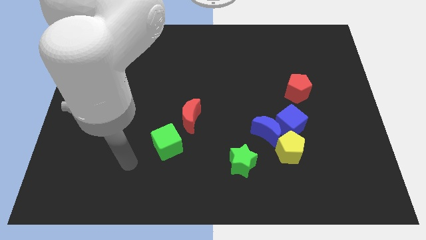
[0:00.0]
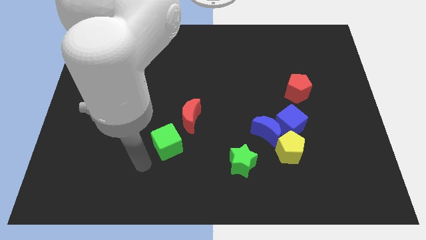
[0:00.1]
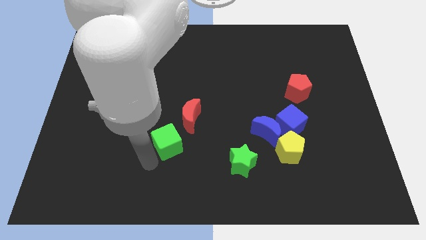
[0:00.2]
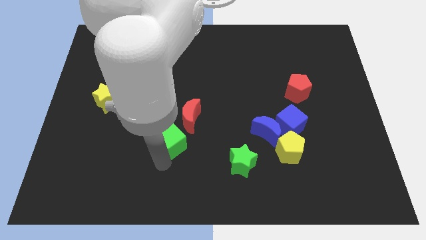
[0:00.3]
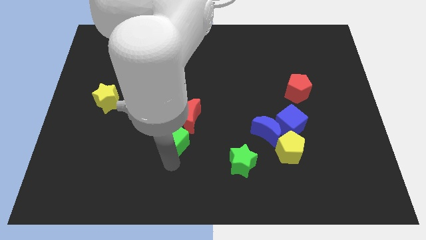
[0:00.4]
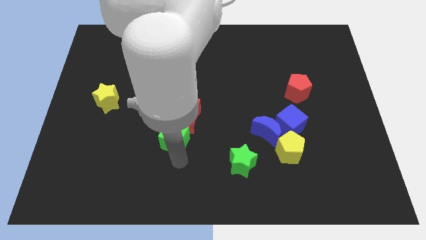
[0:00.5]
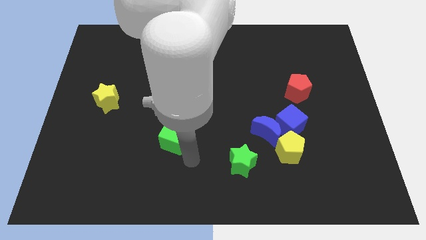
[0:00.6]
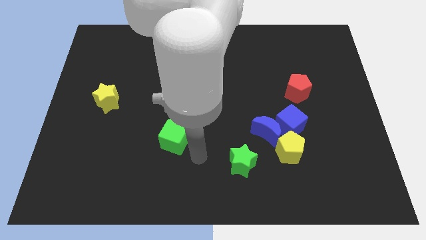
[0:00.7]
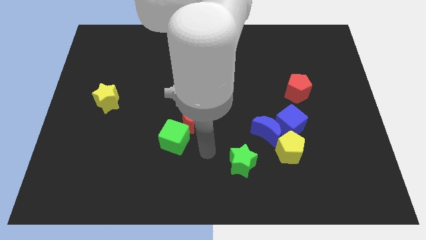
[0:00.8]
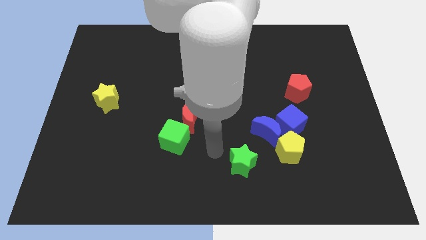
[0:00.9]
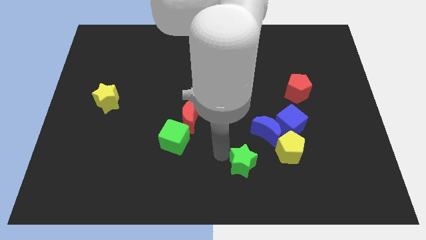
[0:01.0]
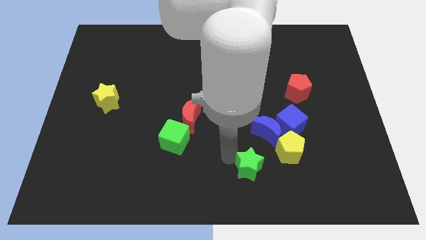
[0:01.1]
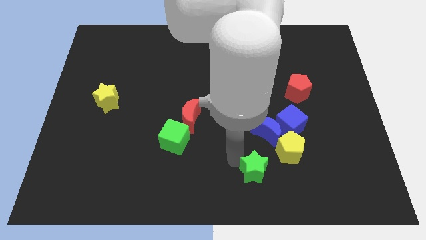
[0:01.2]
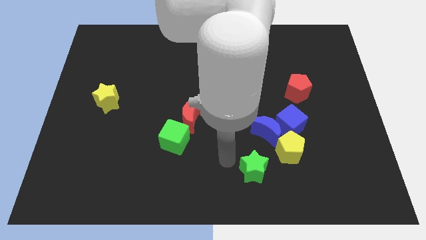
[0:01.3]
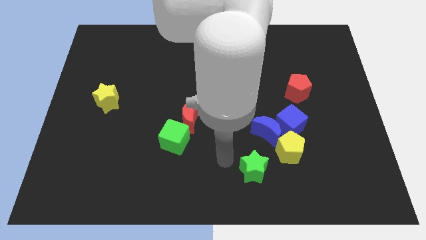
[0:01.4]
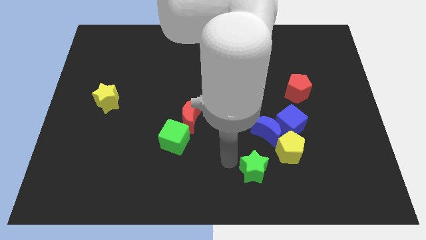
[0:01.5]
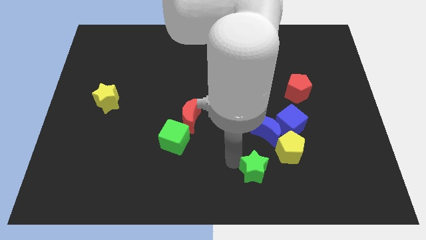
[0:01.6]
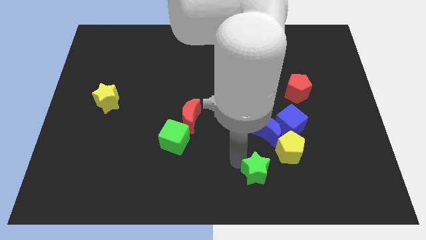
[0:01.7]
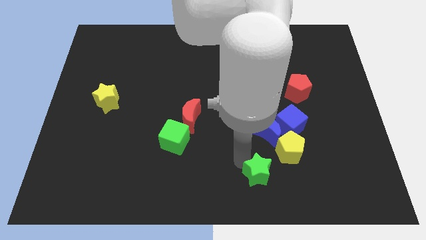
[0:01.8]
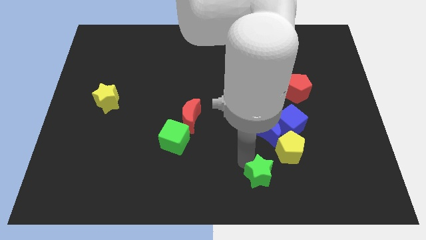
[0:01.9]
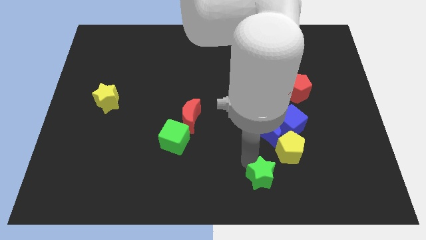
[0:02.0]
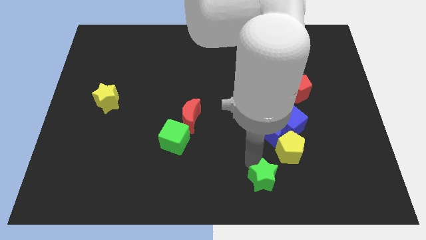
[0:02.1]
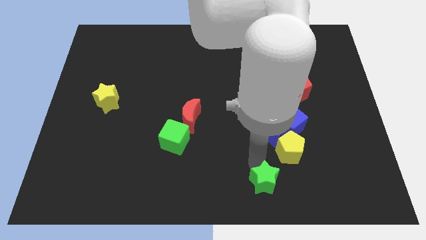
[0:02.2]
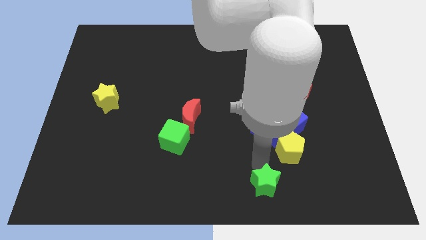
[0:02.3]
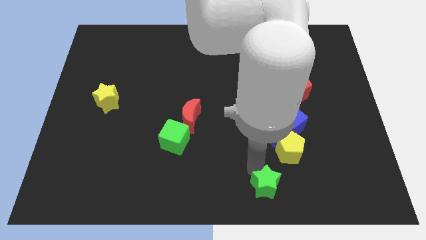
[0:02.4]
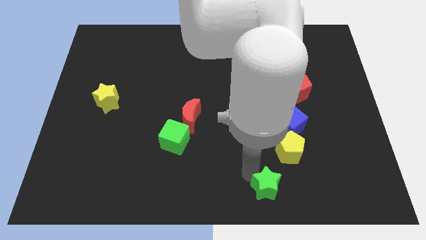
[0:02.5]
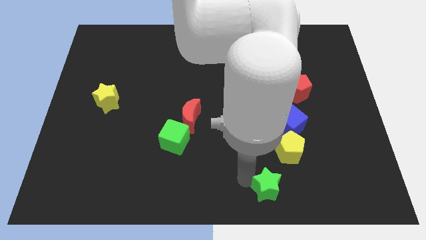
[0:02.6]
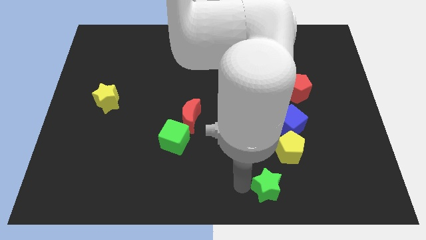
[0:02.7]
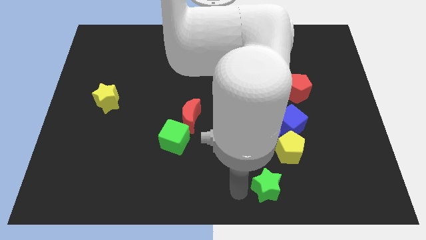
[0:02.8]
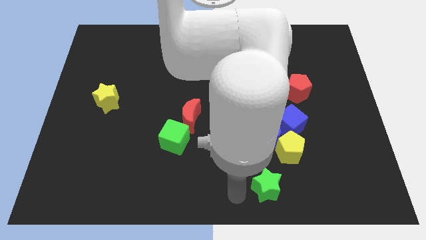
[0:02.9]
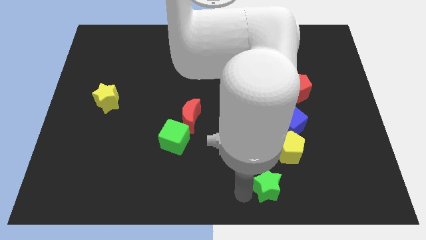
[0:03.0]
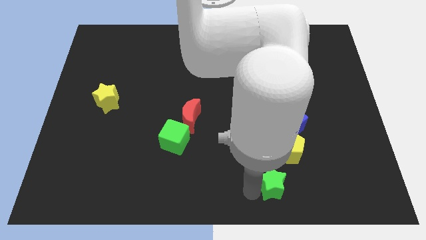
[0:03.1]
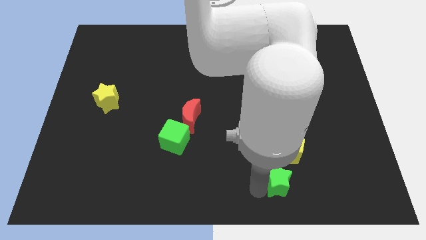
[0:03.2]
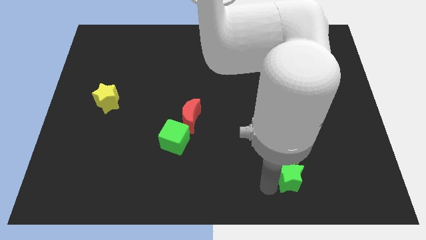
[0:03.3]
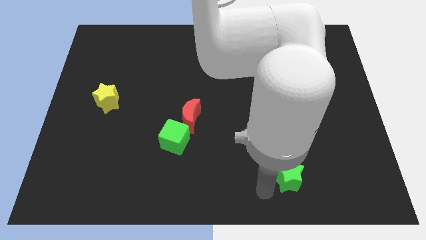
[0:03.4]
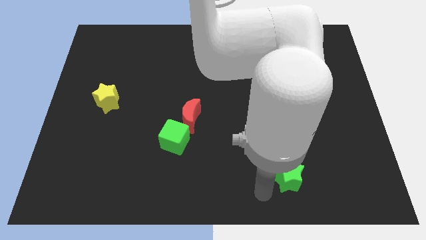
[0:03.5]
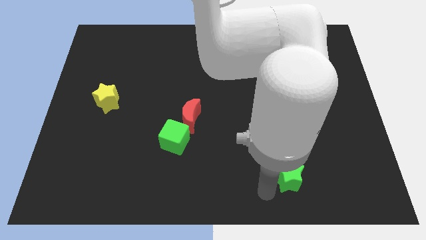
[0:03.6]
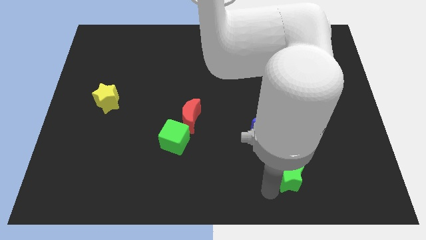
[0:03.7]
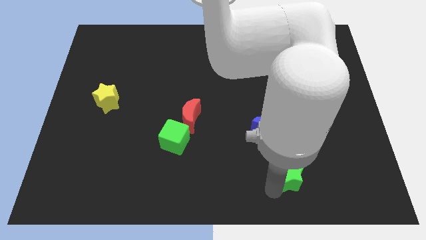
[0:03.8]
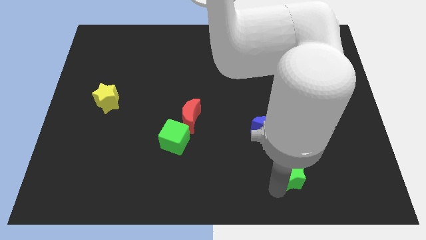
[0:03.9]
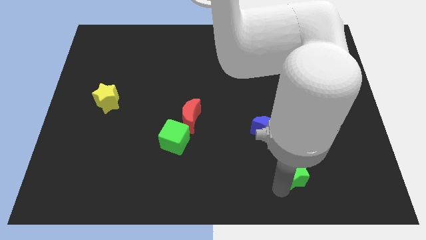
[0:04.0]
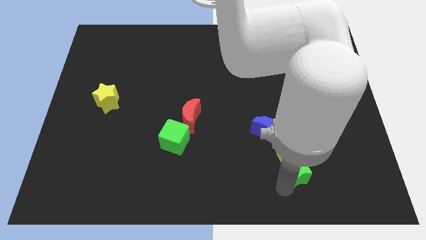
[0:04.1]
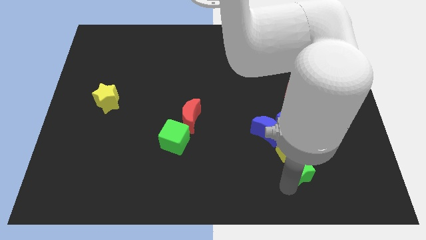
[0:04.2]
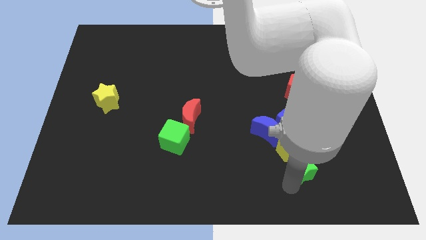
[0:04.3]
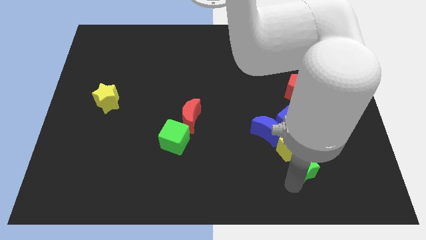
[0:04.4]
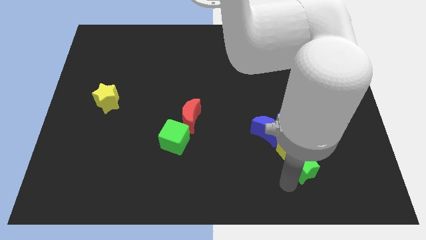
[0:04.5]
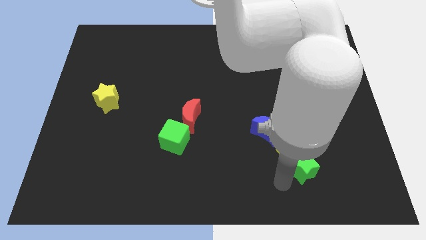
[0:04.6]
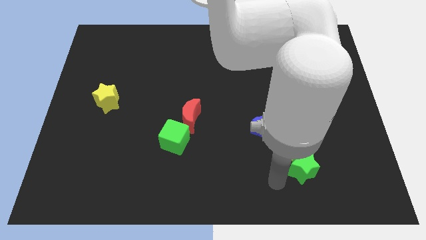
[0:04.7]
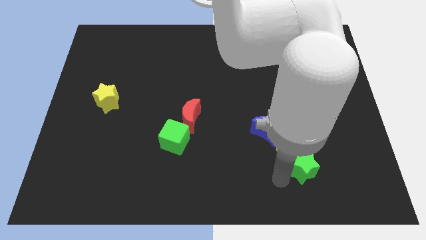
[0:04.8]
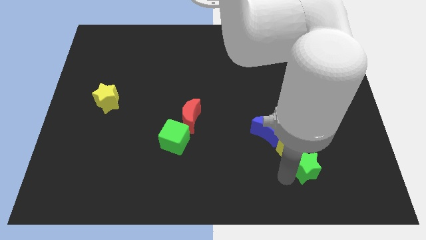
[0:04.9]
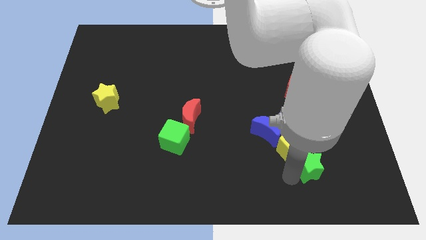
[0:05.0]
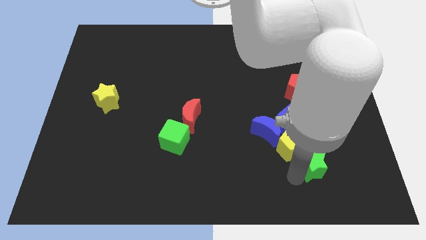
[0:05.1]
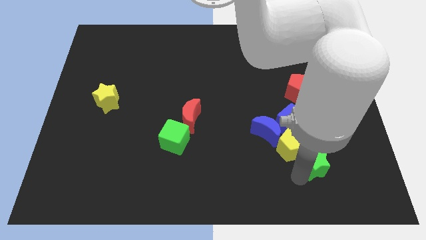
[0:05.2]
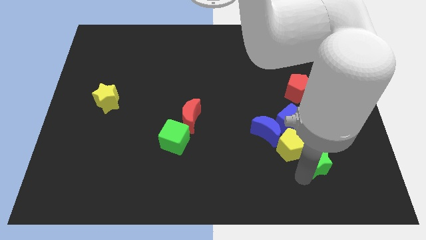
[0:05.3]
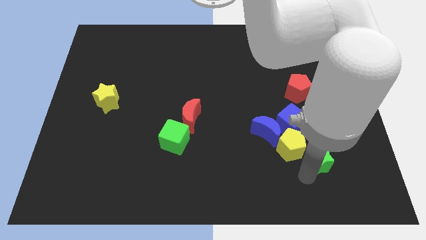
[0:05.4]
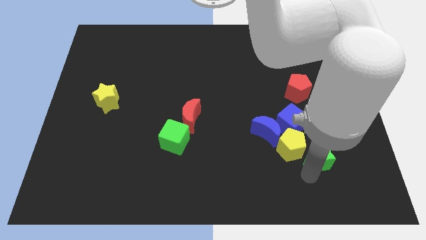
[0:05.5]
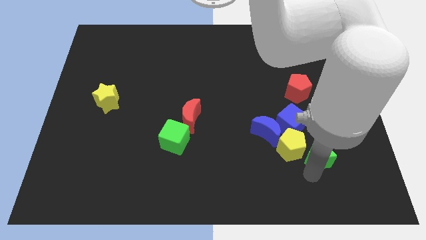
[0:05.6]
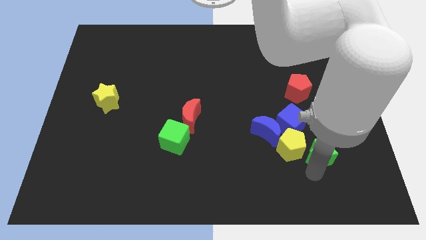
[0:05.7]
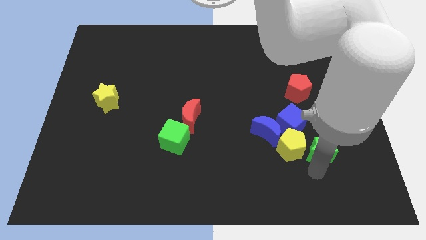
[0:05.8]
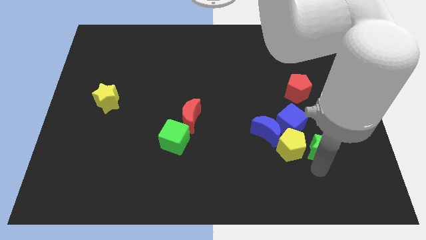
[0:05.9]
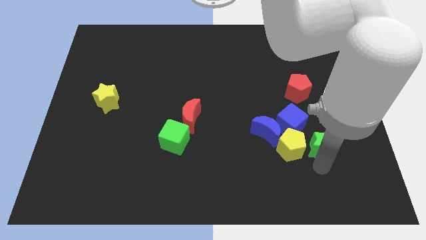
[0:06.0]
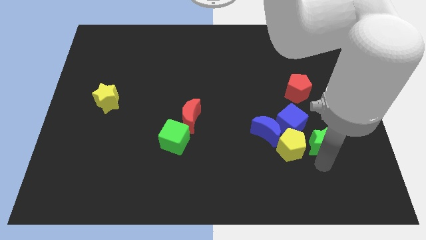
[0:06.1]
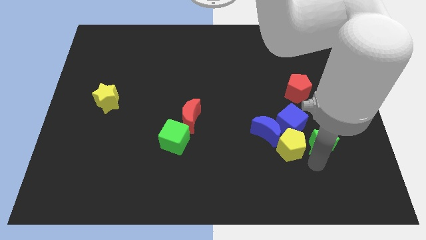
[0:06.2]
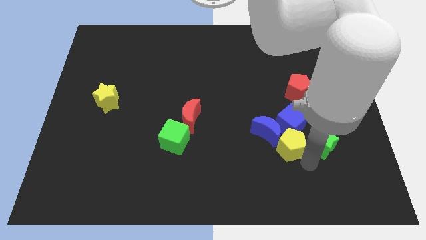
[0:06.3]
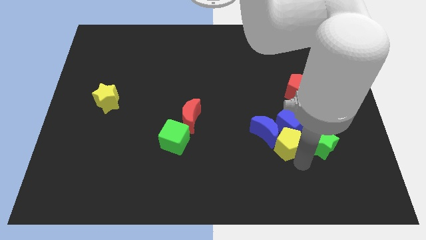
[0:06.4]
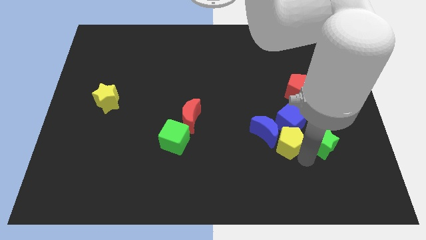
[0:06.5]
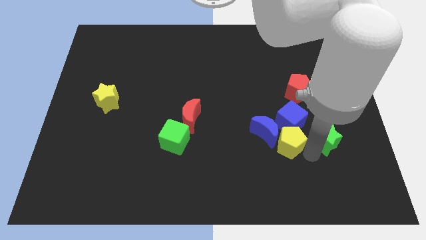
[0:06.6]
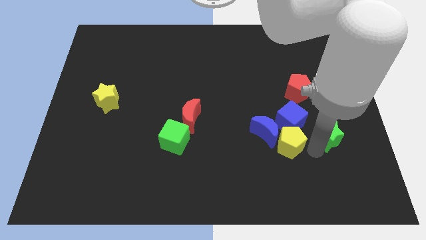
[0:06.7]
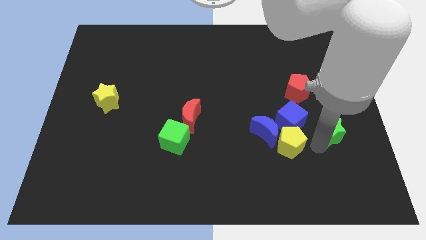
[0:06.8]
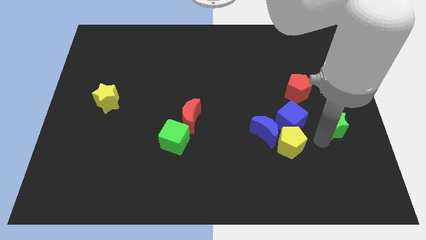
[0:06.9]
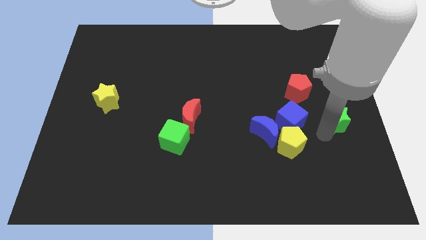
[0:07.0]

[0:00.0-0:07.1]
move the green star to the right side
